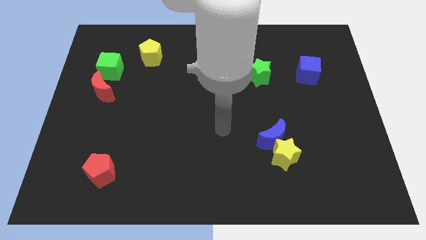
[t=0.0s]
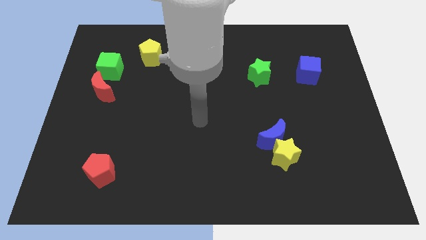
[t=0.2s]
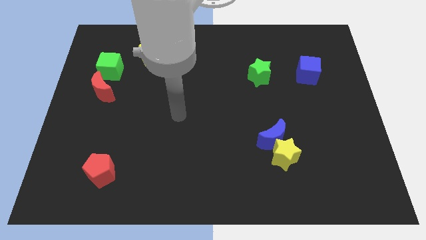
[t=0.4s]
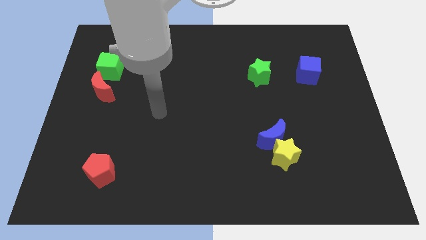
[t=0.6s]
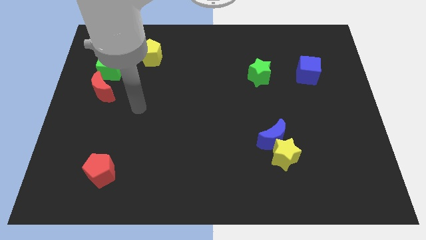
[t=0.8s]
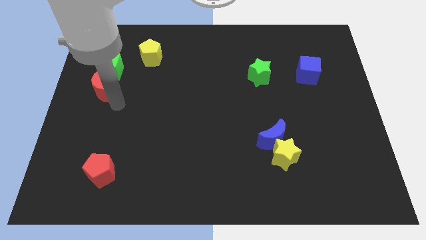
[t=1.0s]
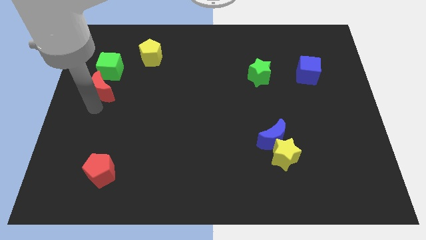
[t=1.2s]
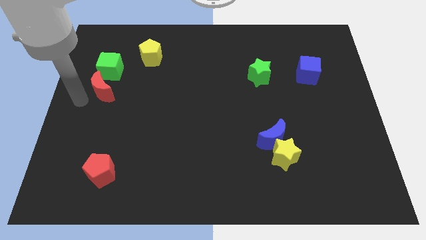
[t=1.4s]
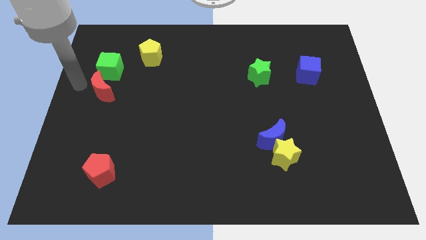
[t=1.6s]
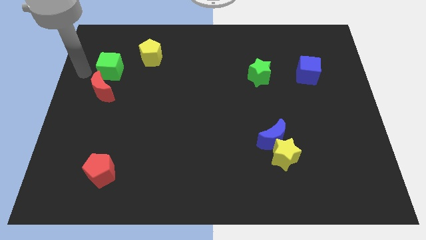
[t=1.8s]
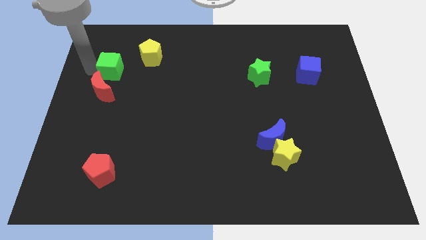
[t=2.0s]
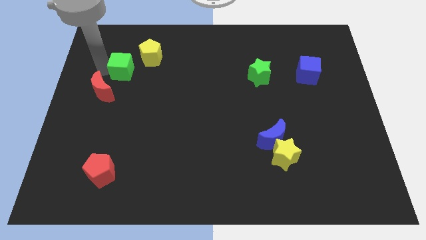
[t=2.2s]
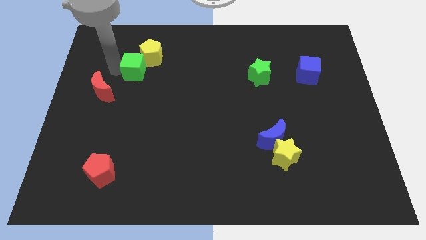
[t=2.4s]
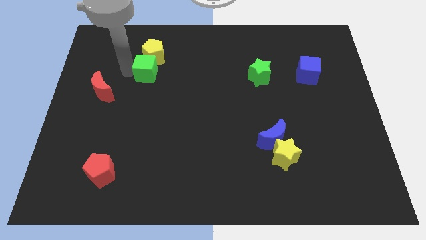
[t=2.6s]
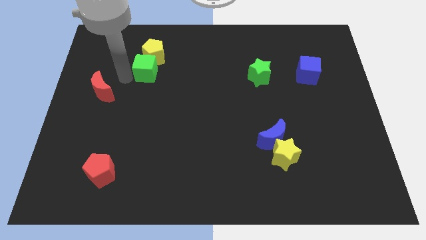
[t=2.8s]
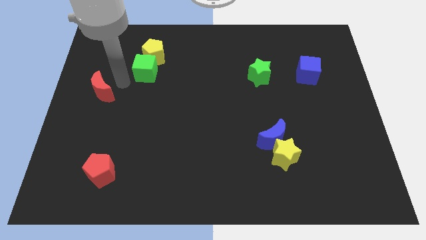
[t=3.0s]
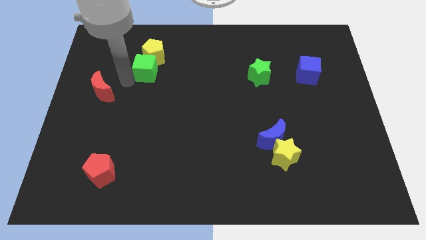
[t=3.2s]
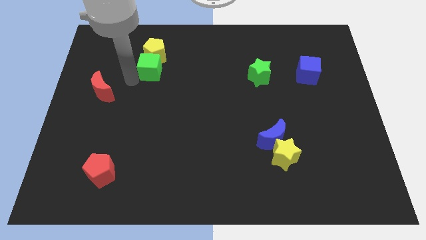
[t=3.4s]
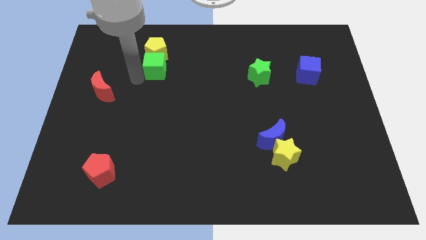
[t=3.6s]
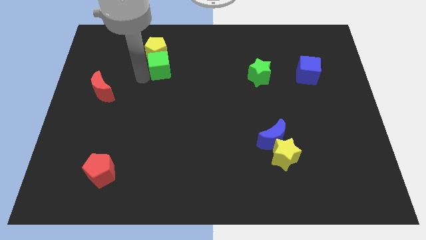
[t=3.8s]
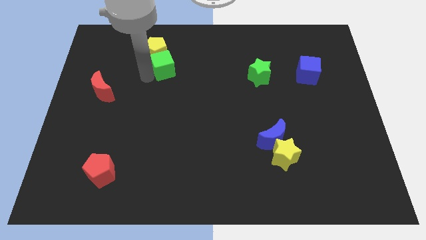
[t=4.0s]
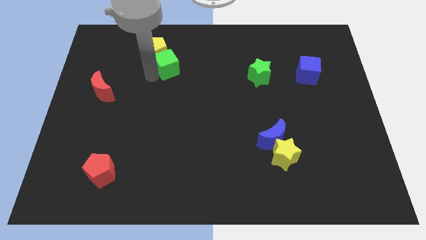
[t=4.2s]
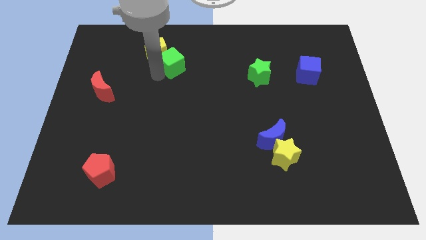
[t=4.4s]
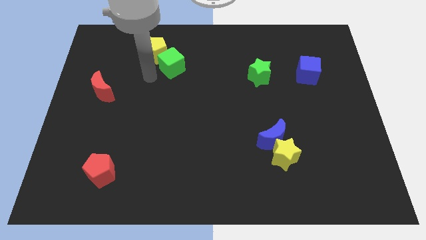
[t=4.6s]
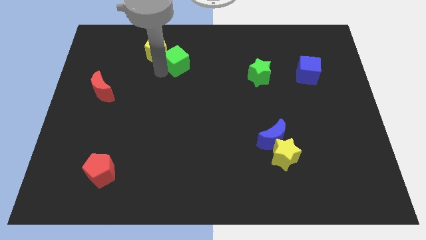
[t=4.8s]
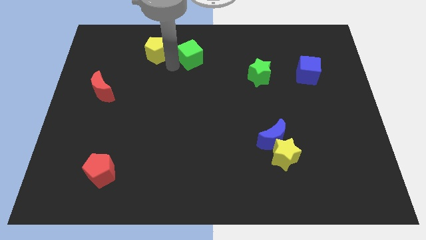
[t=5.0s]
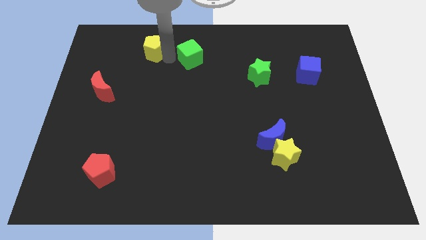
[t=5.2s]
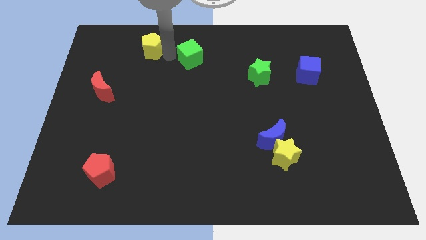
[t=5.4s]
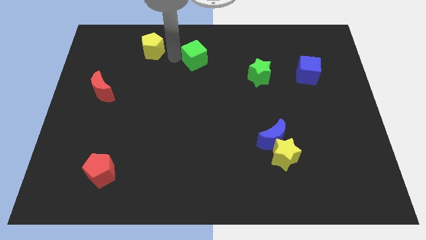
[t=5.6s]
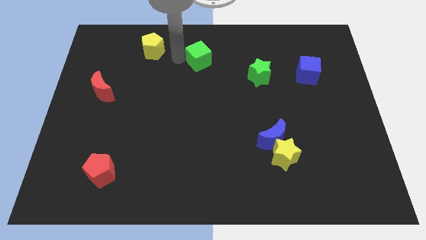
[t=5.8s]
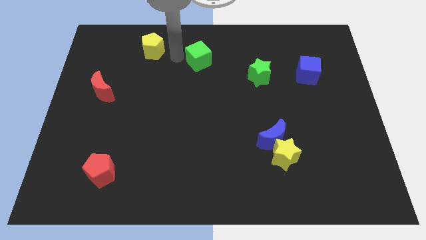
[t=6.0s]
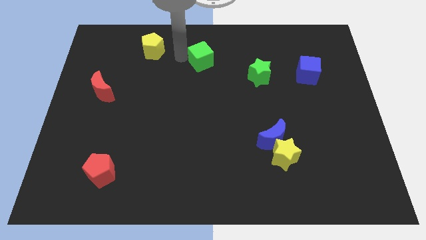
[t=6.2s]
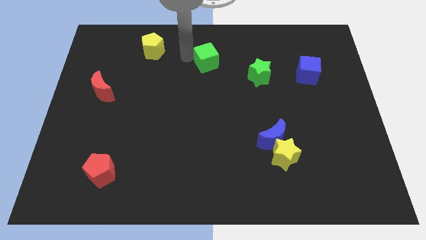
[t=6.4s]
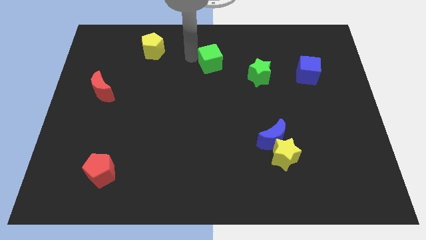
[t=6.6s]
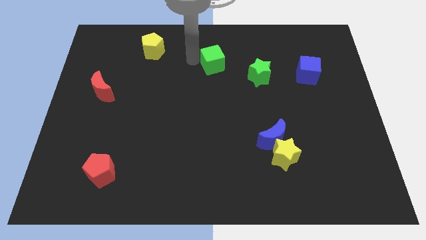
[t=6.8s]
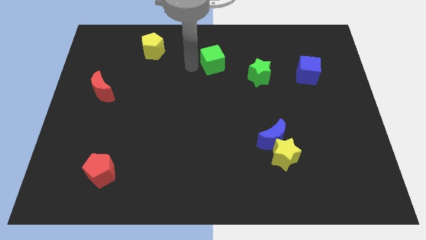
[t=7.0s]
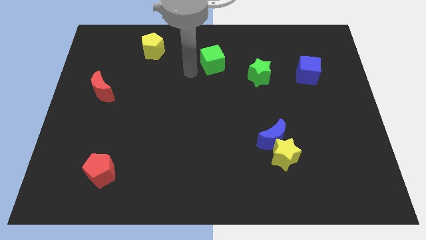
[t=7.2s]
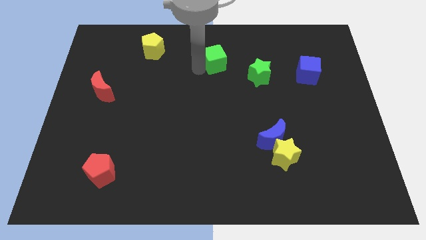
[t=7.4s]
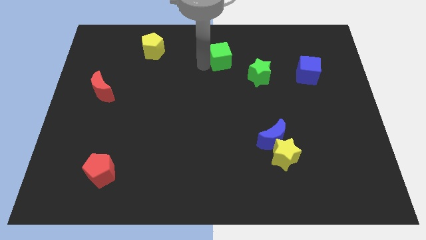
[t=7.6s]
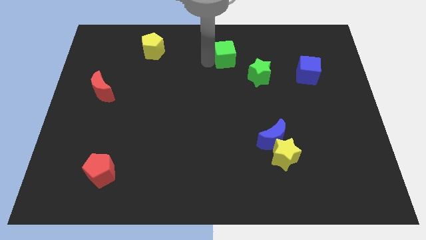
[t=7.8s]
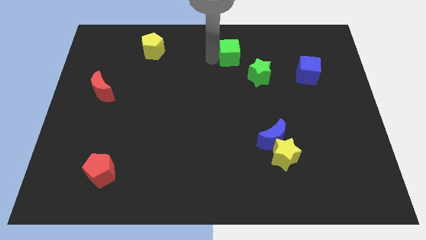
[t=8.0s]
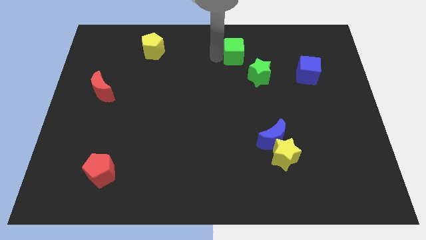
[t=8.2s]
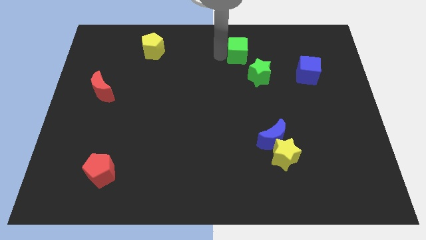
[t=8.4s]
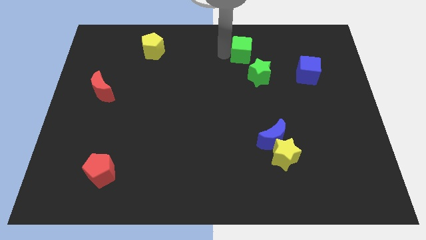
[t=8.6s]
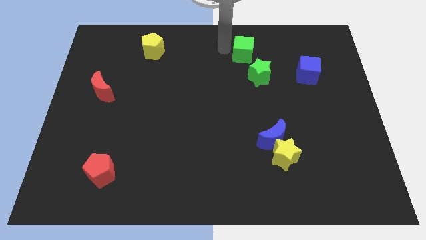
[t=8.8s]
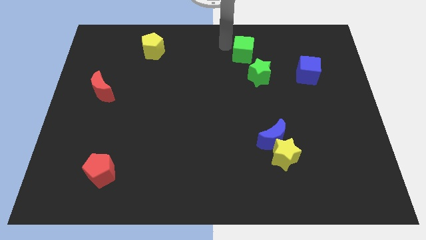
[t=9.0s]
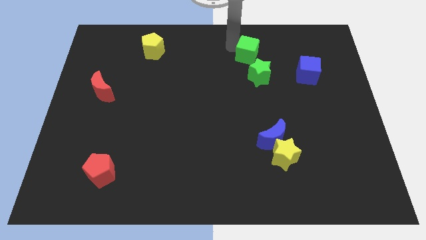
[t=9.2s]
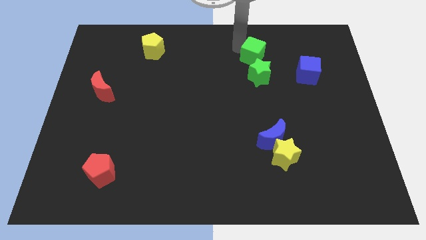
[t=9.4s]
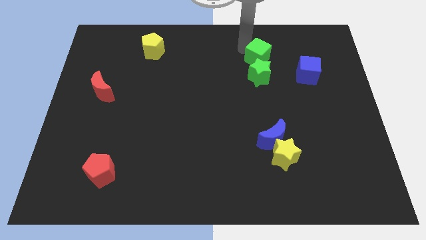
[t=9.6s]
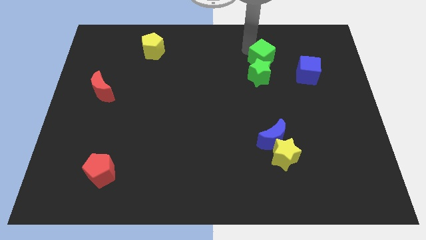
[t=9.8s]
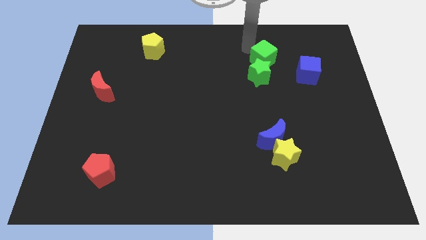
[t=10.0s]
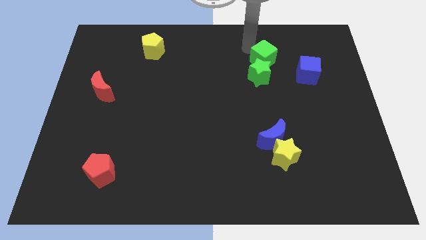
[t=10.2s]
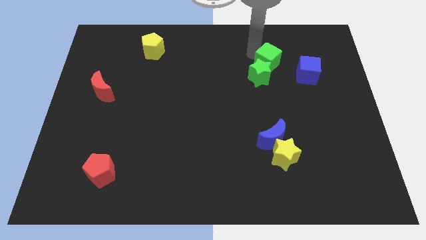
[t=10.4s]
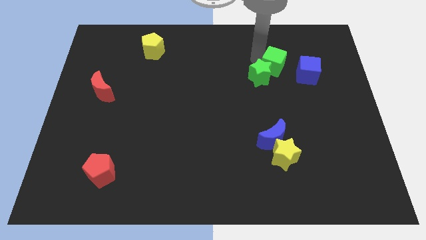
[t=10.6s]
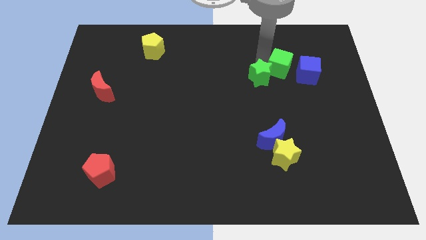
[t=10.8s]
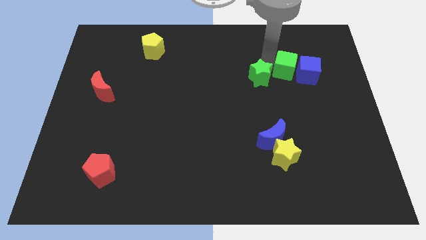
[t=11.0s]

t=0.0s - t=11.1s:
move the green cube to the blue cube

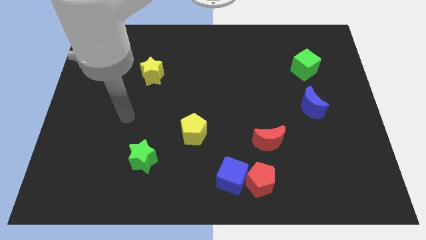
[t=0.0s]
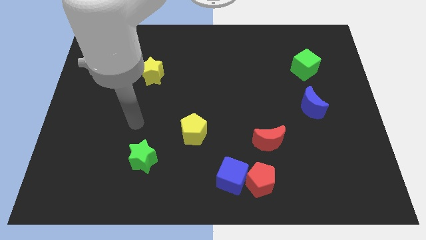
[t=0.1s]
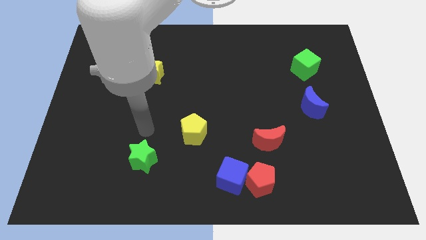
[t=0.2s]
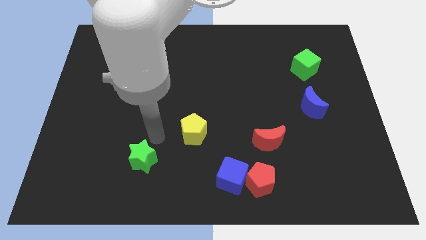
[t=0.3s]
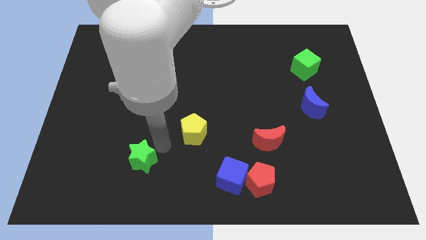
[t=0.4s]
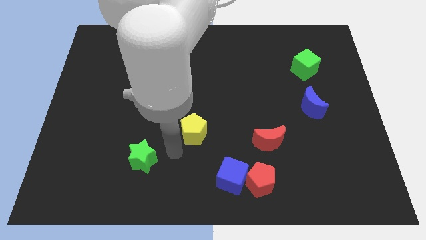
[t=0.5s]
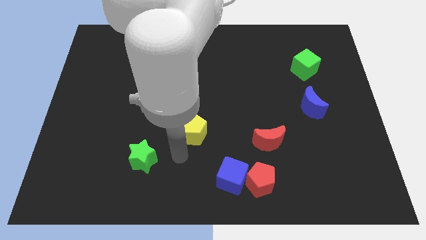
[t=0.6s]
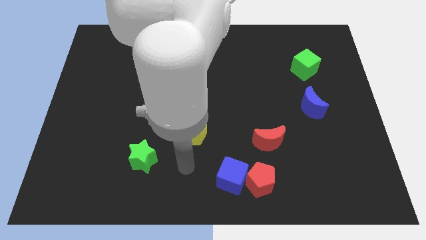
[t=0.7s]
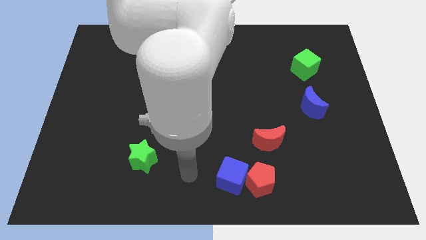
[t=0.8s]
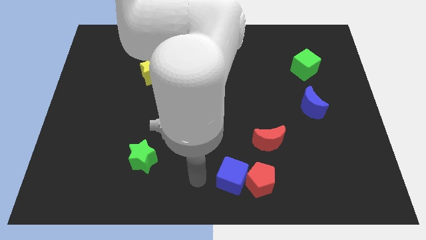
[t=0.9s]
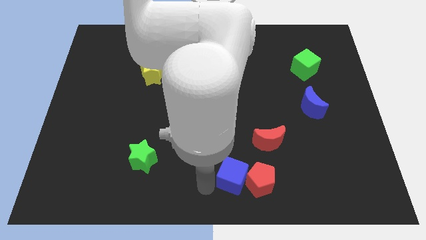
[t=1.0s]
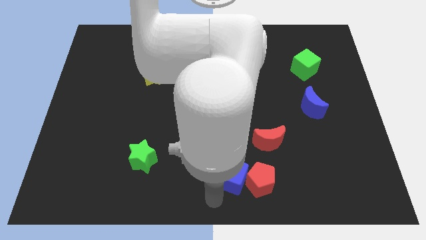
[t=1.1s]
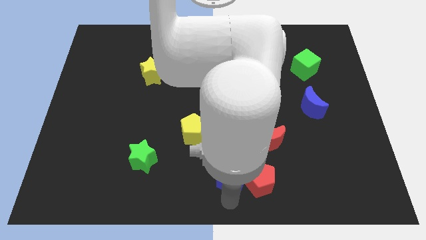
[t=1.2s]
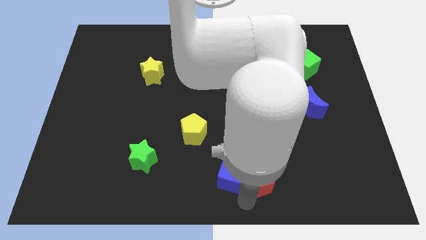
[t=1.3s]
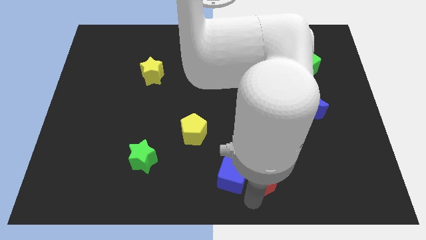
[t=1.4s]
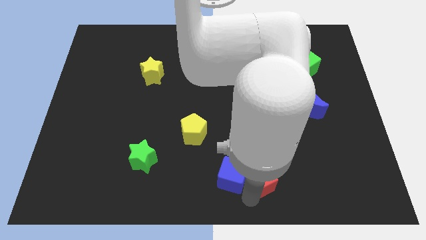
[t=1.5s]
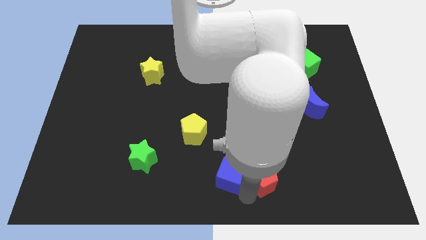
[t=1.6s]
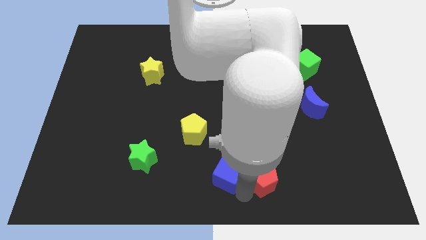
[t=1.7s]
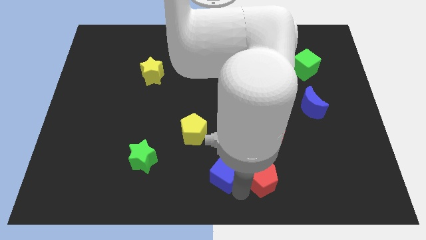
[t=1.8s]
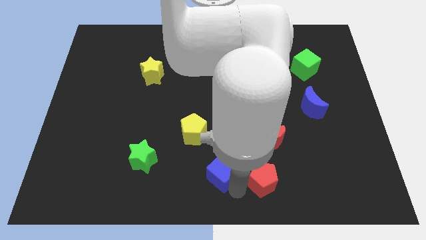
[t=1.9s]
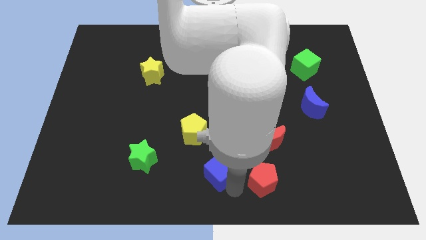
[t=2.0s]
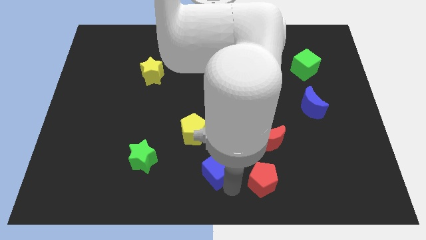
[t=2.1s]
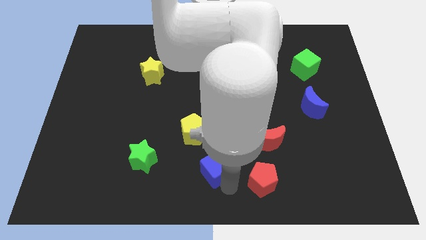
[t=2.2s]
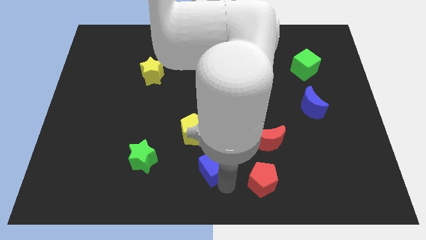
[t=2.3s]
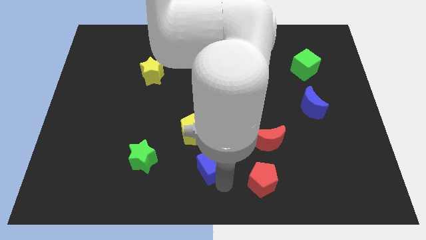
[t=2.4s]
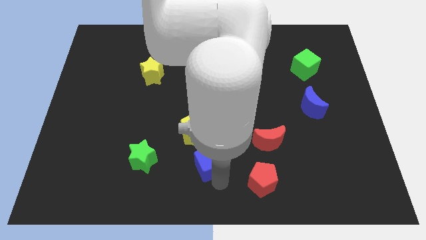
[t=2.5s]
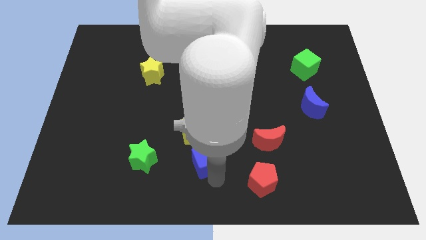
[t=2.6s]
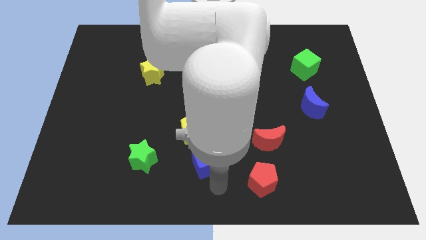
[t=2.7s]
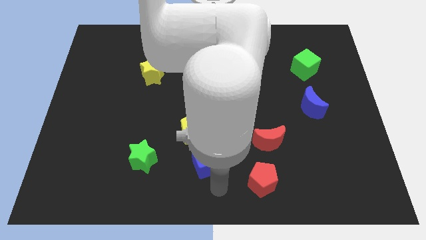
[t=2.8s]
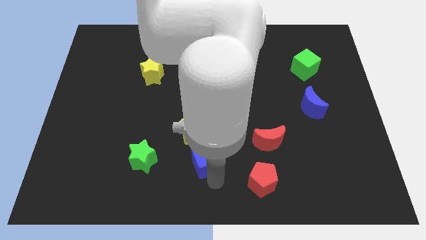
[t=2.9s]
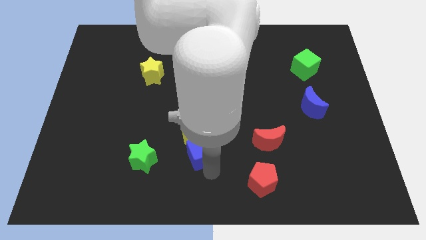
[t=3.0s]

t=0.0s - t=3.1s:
move the blue cube towards the yellow pentagon
